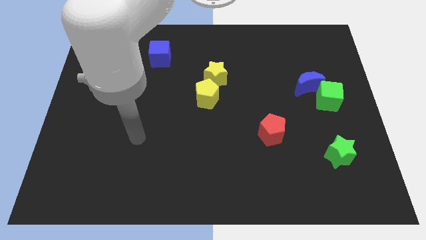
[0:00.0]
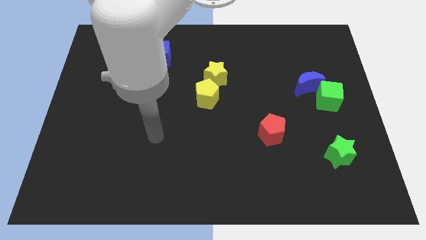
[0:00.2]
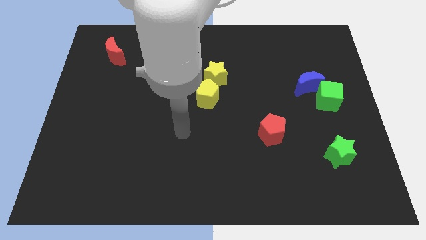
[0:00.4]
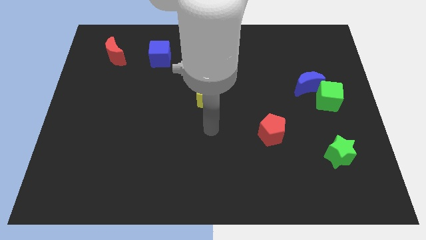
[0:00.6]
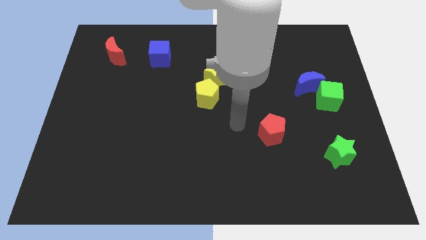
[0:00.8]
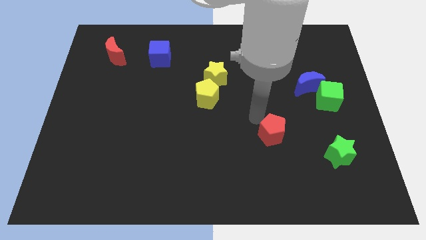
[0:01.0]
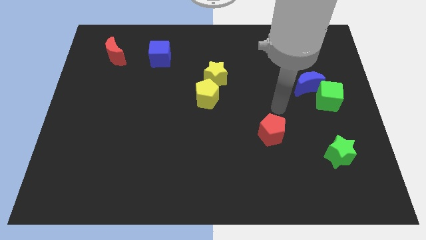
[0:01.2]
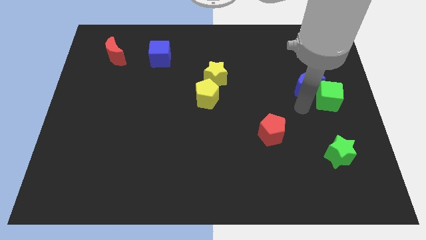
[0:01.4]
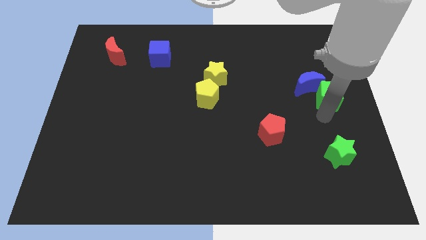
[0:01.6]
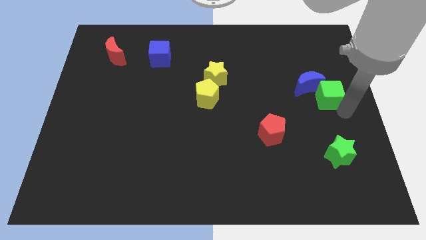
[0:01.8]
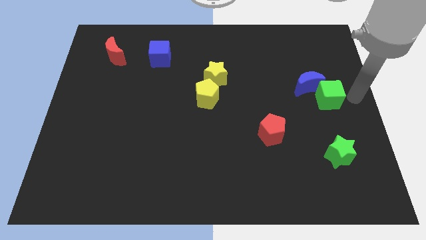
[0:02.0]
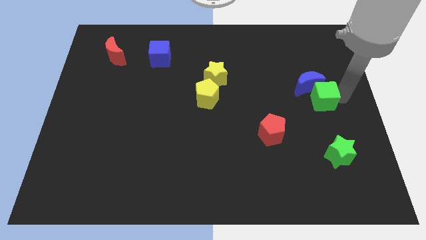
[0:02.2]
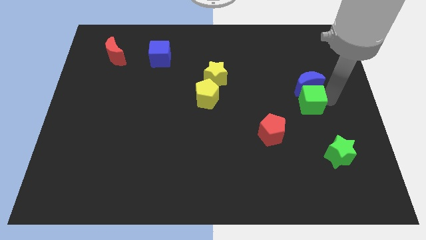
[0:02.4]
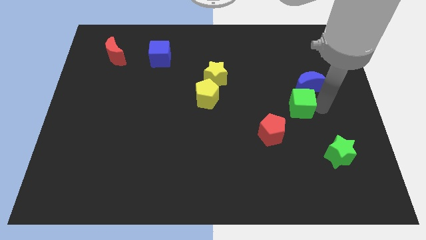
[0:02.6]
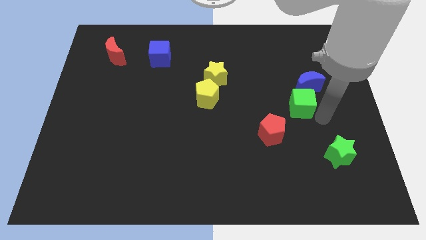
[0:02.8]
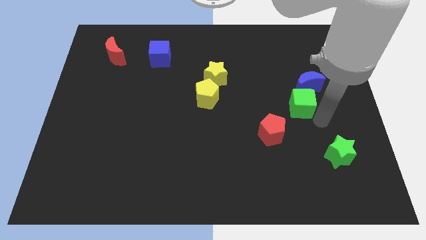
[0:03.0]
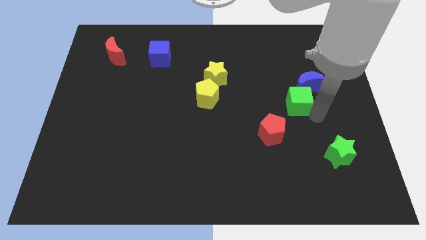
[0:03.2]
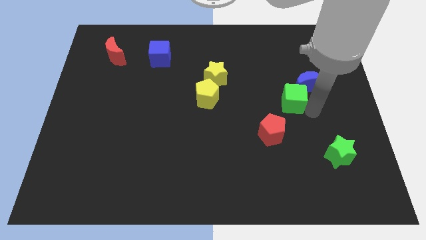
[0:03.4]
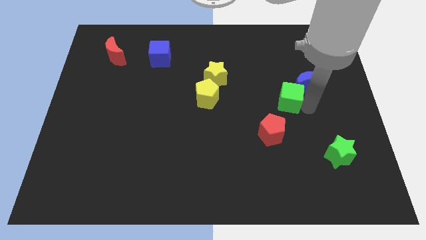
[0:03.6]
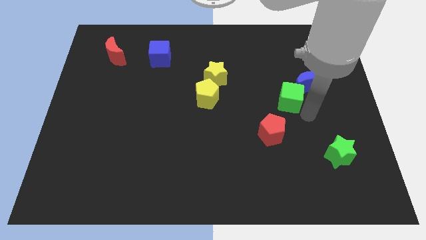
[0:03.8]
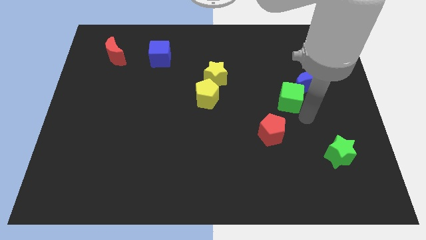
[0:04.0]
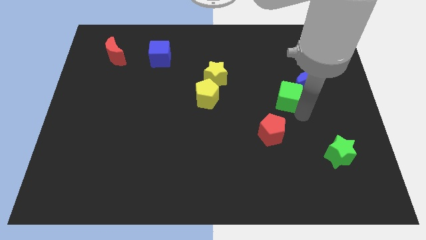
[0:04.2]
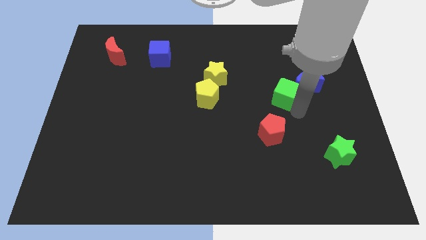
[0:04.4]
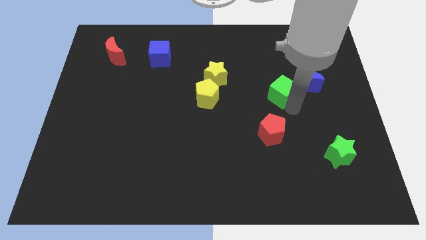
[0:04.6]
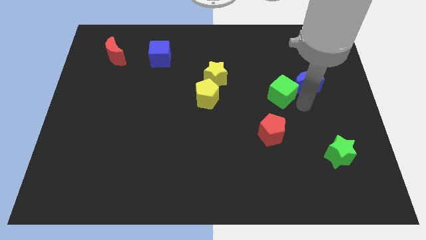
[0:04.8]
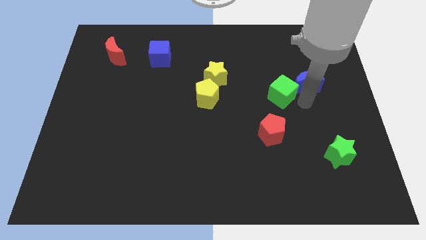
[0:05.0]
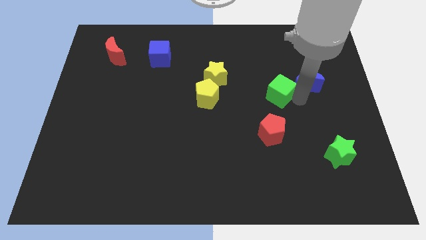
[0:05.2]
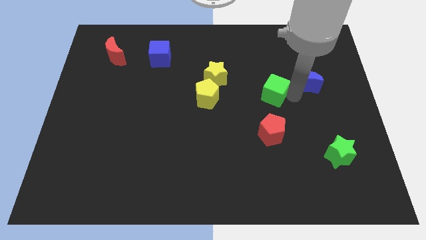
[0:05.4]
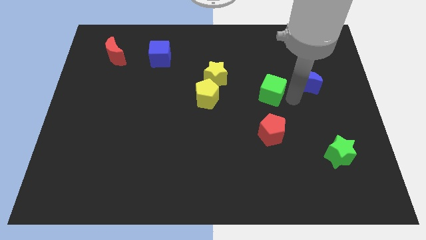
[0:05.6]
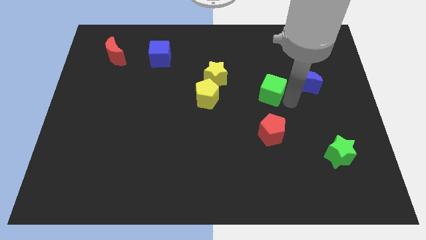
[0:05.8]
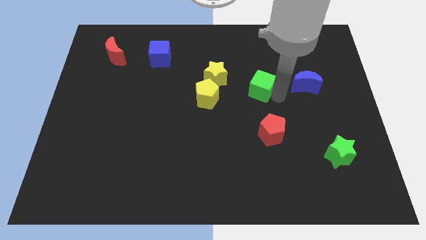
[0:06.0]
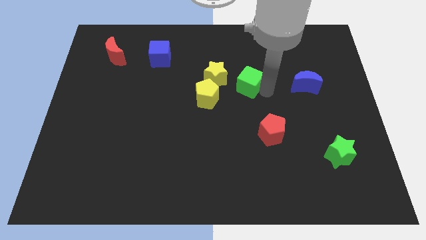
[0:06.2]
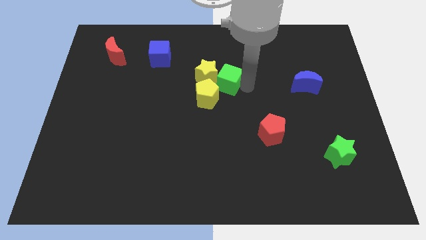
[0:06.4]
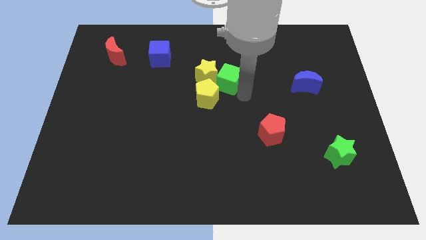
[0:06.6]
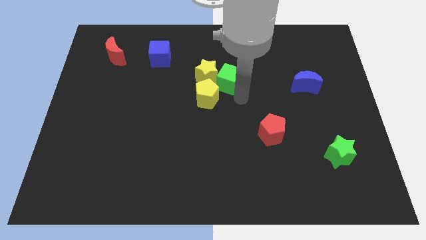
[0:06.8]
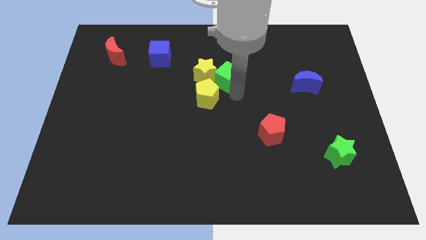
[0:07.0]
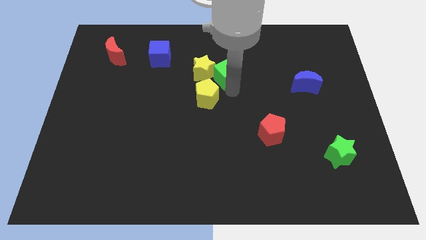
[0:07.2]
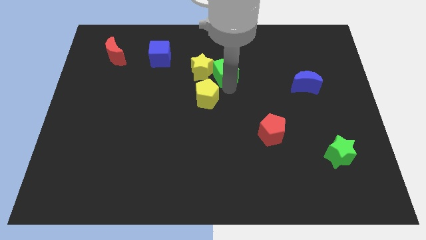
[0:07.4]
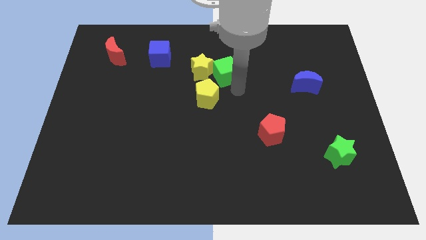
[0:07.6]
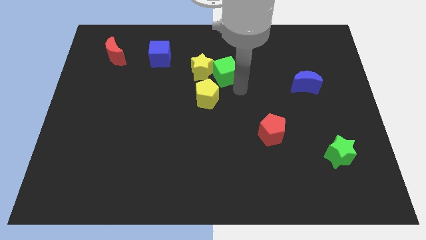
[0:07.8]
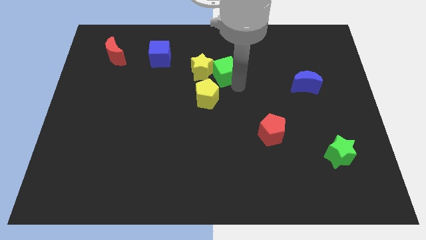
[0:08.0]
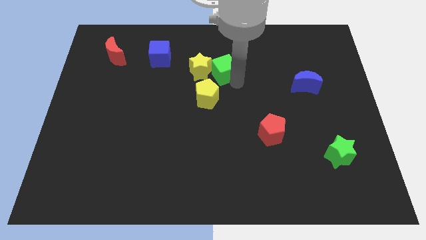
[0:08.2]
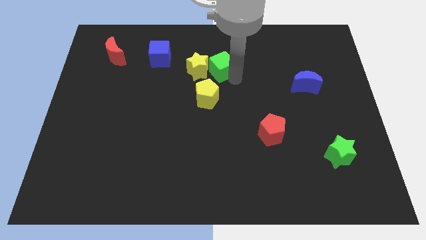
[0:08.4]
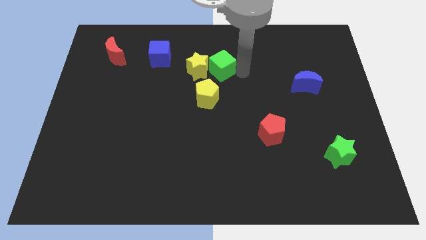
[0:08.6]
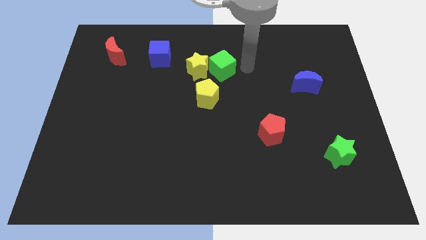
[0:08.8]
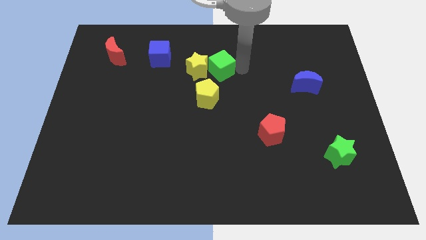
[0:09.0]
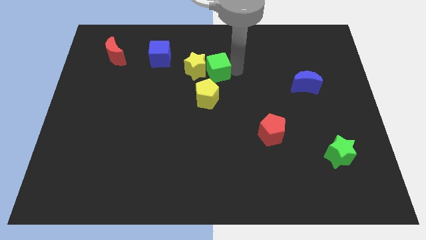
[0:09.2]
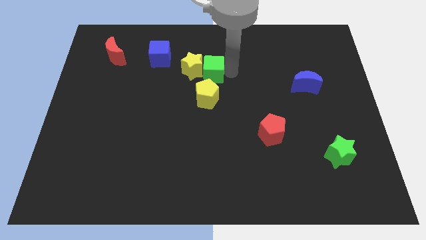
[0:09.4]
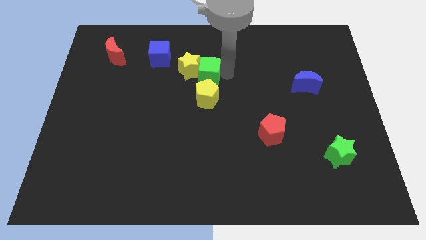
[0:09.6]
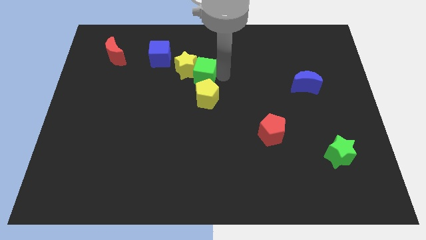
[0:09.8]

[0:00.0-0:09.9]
slide the green cube diagonally up and to the left of the yellow pentagon

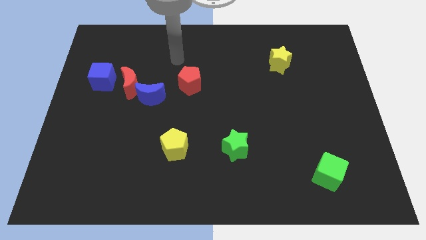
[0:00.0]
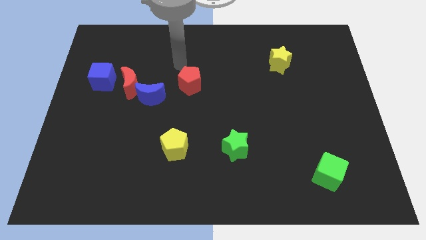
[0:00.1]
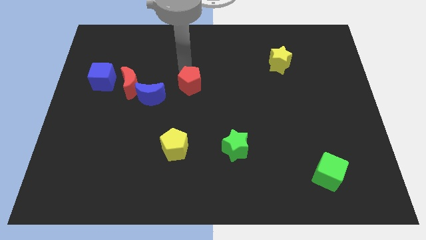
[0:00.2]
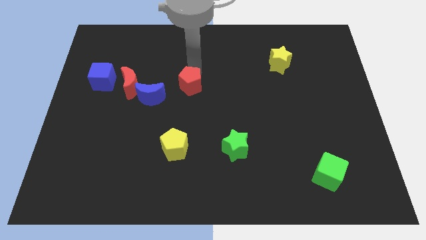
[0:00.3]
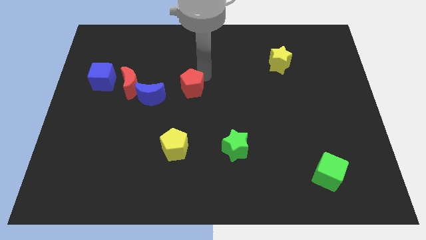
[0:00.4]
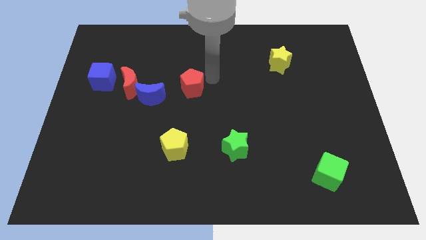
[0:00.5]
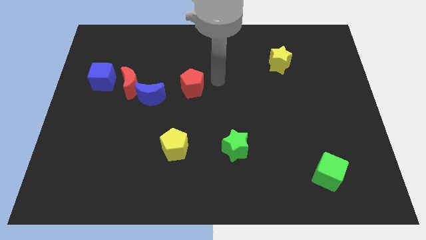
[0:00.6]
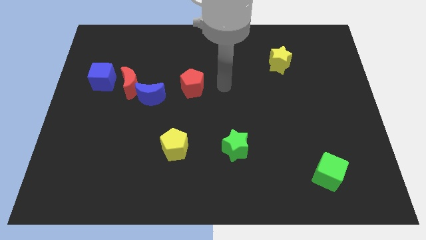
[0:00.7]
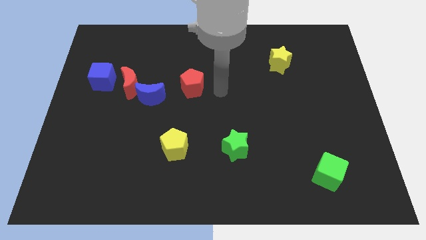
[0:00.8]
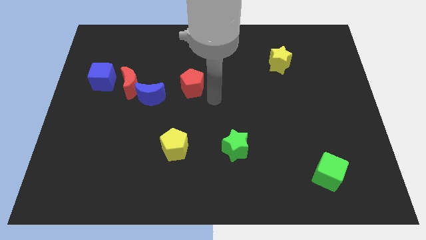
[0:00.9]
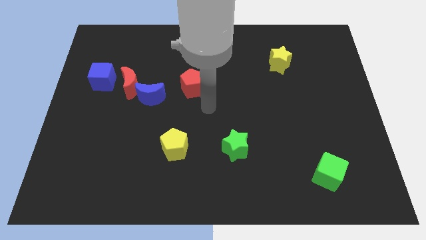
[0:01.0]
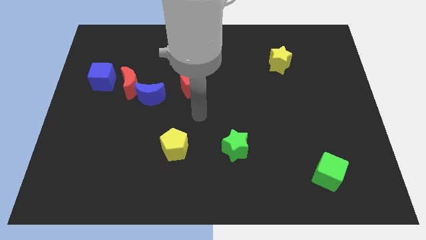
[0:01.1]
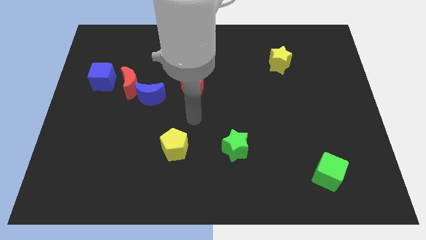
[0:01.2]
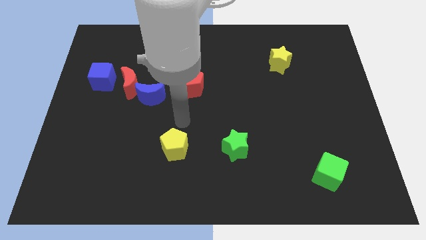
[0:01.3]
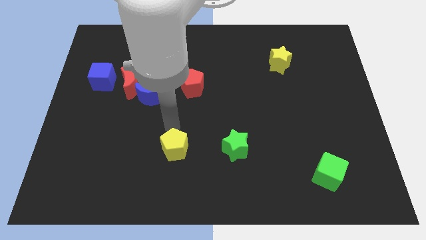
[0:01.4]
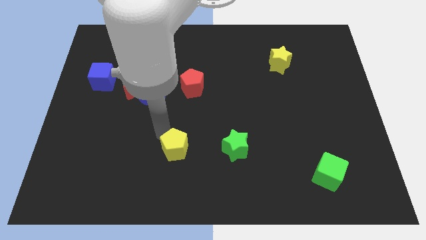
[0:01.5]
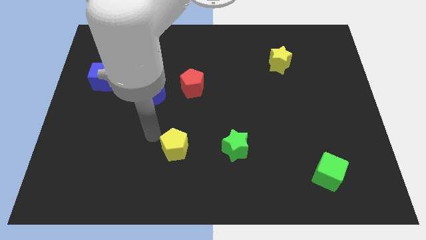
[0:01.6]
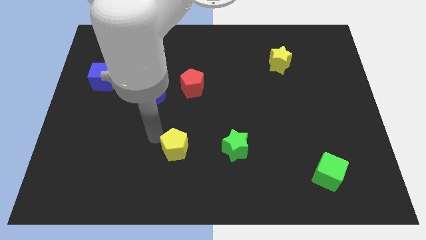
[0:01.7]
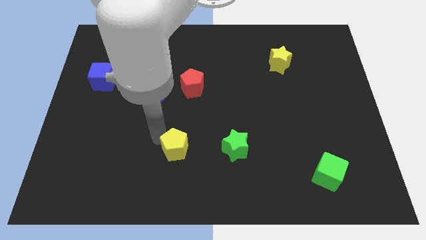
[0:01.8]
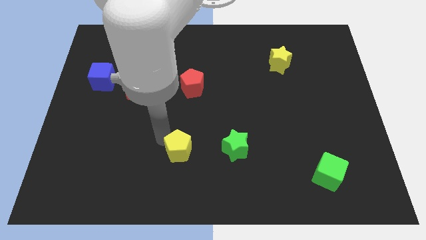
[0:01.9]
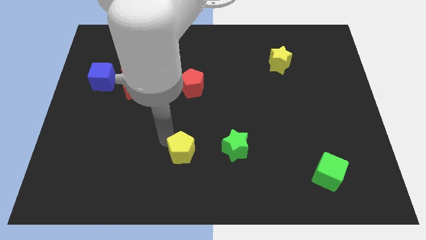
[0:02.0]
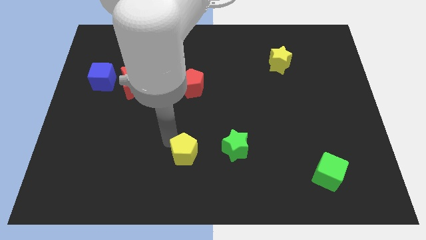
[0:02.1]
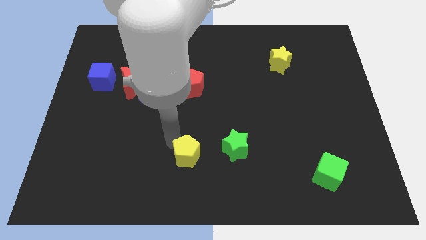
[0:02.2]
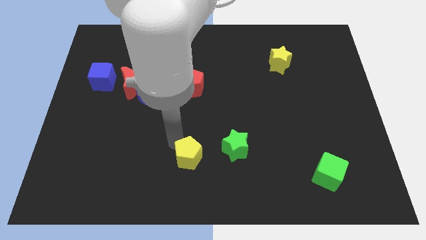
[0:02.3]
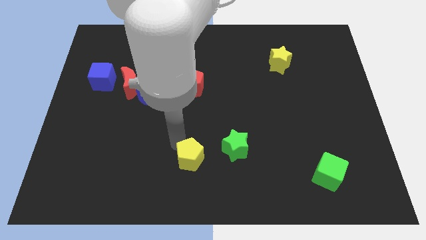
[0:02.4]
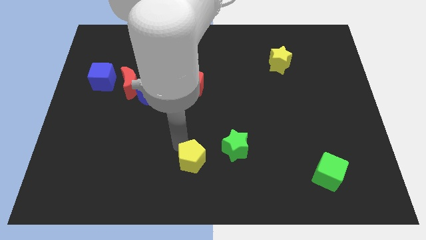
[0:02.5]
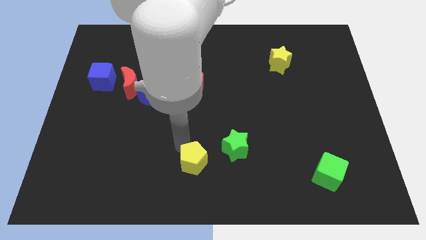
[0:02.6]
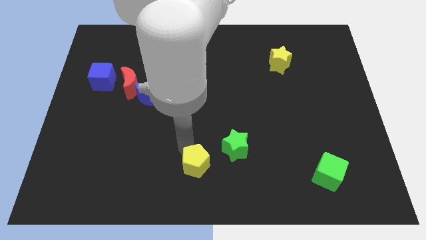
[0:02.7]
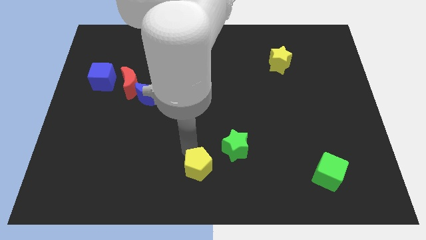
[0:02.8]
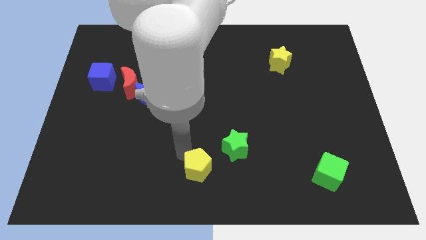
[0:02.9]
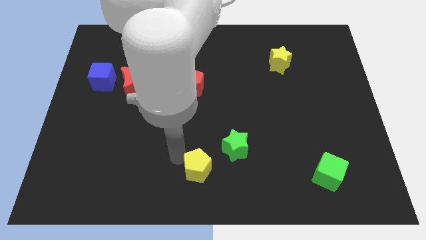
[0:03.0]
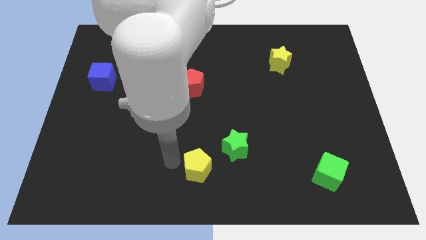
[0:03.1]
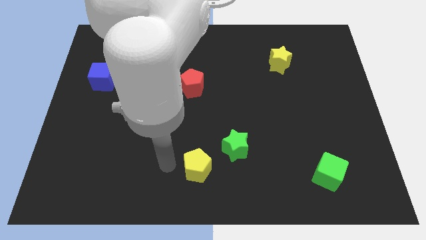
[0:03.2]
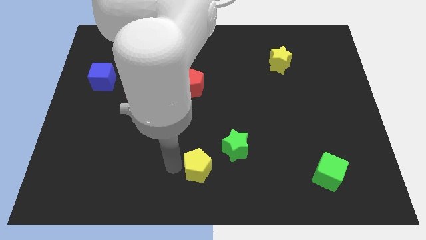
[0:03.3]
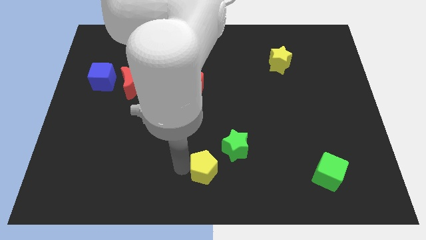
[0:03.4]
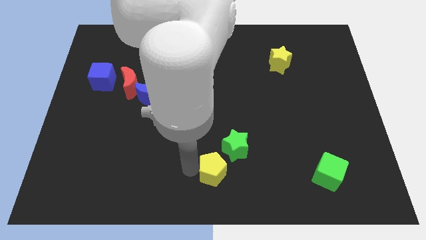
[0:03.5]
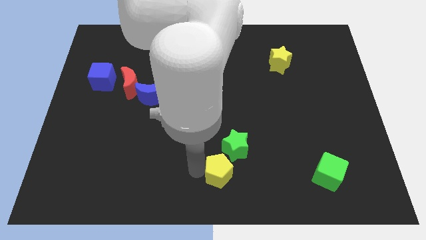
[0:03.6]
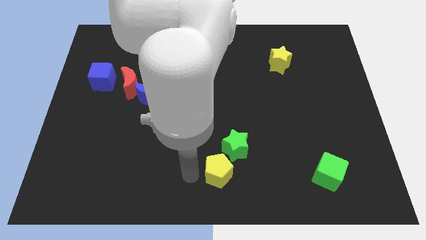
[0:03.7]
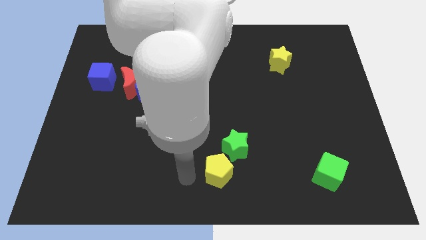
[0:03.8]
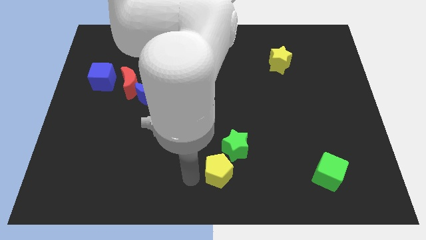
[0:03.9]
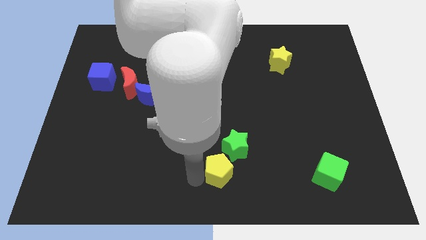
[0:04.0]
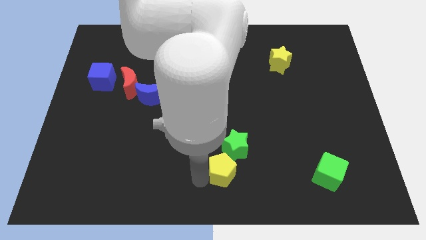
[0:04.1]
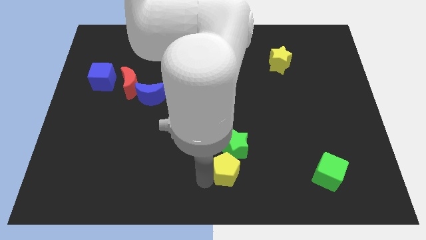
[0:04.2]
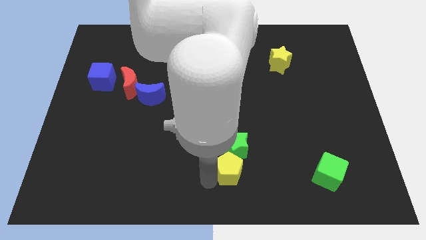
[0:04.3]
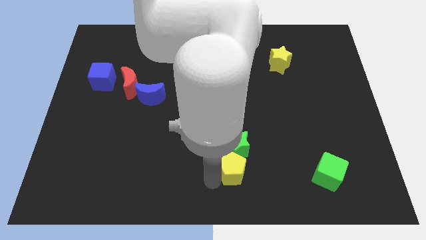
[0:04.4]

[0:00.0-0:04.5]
push the yellow pentagon to the bottom right of the green star
